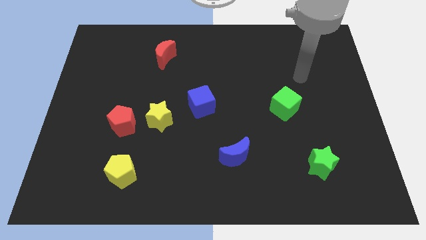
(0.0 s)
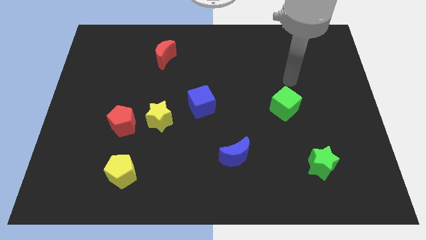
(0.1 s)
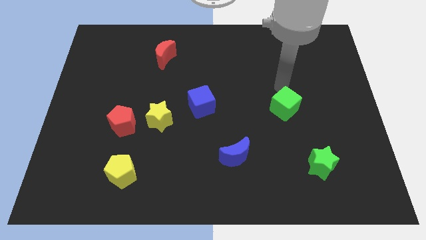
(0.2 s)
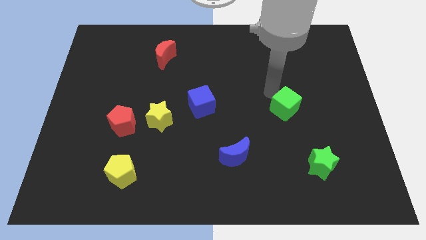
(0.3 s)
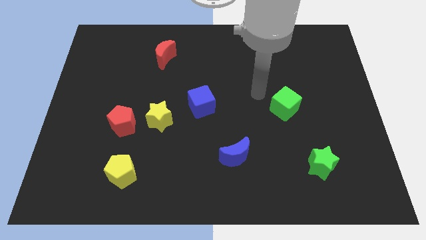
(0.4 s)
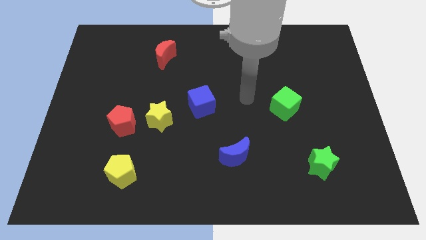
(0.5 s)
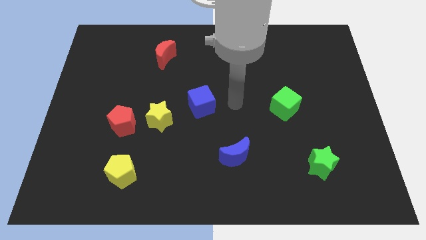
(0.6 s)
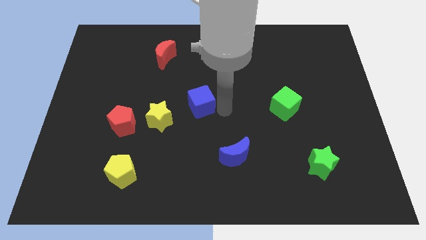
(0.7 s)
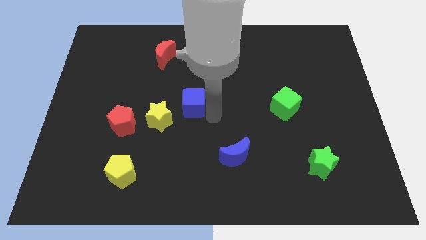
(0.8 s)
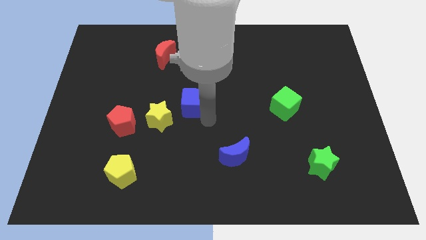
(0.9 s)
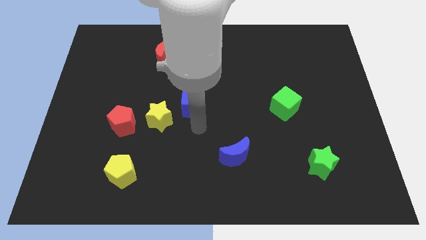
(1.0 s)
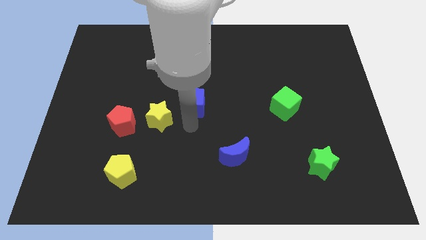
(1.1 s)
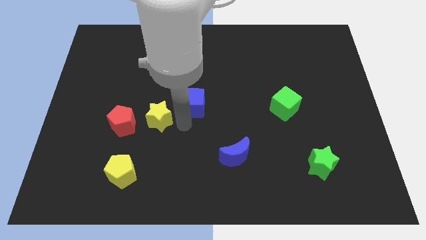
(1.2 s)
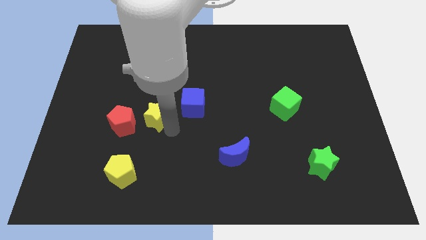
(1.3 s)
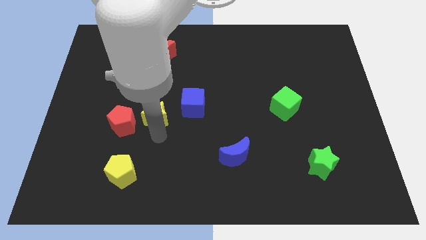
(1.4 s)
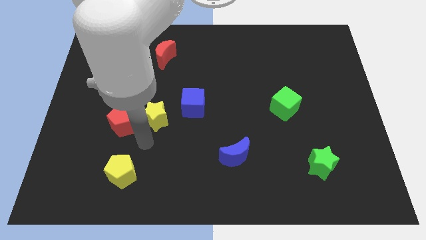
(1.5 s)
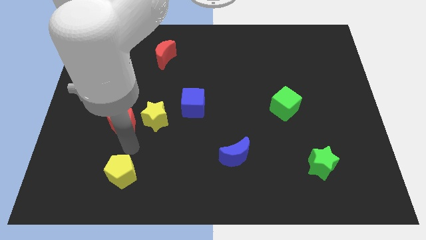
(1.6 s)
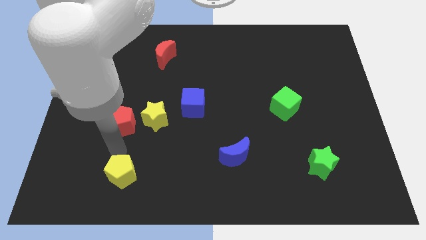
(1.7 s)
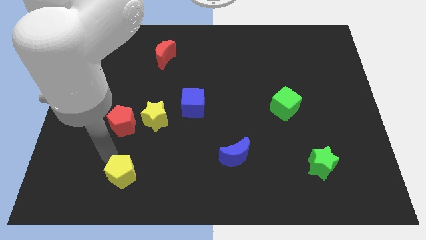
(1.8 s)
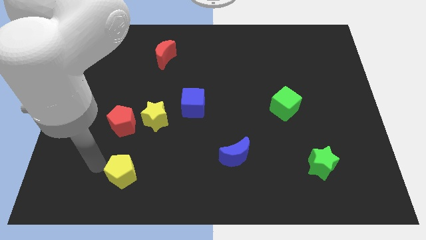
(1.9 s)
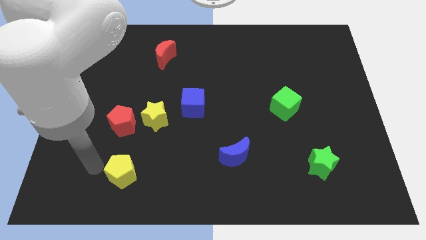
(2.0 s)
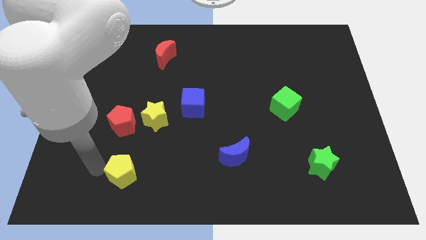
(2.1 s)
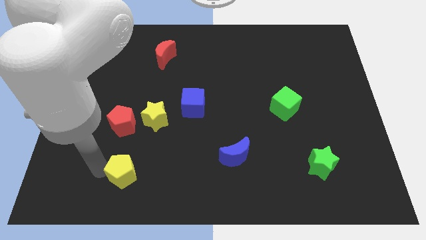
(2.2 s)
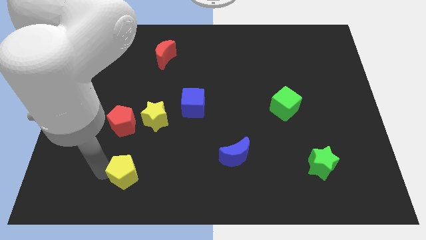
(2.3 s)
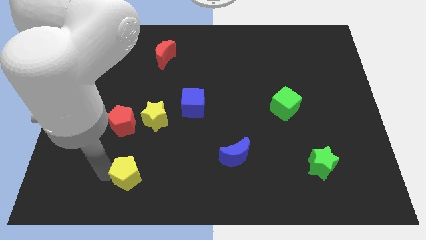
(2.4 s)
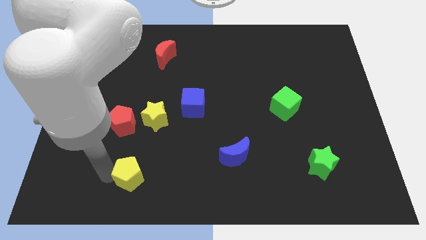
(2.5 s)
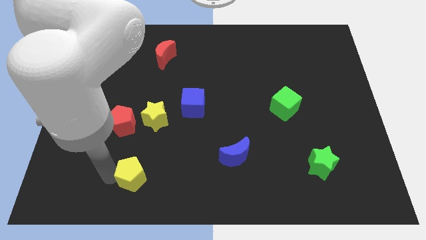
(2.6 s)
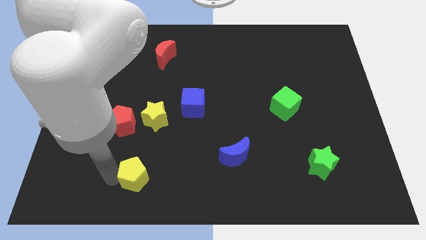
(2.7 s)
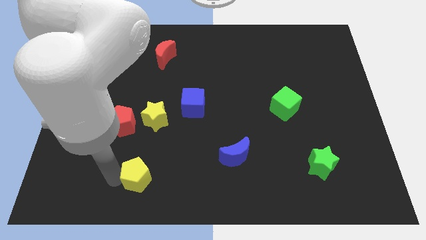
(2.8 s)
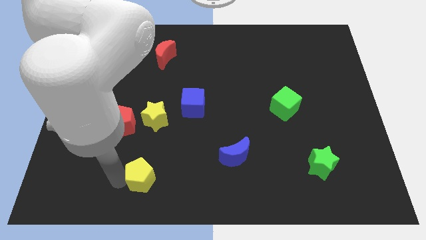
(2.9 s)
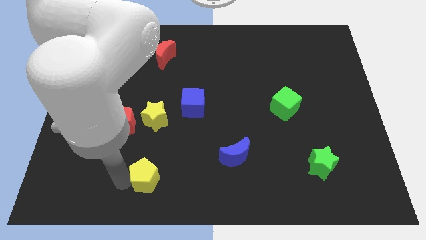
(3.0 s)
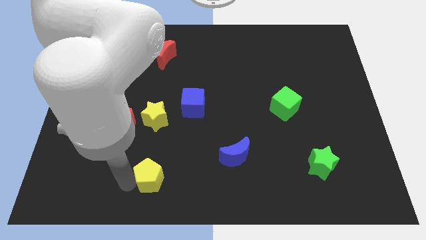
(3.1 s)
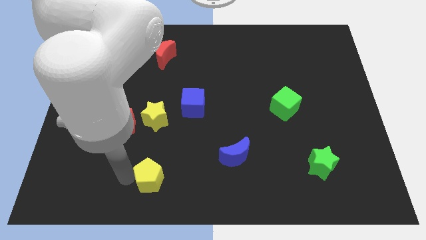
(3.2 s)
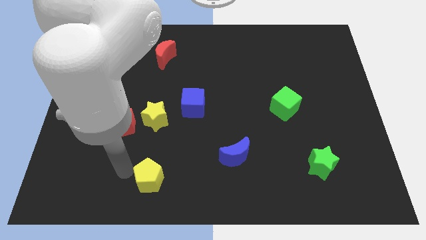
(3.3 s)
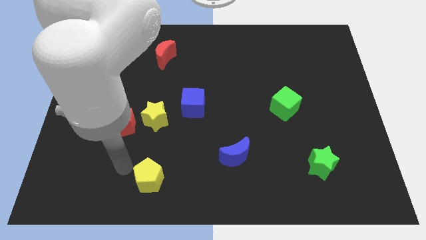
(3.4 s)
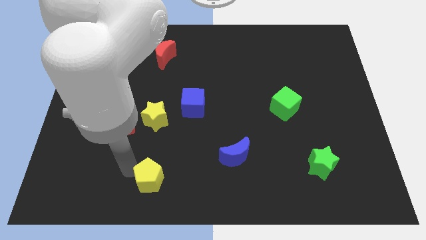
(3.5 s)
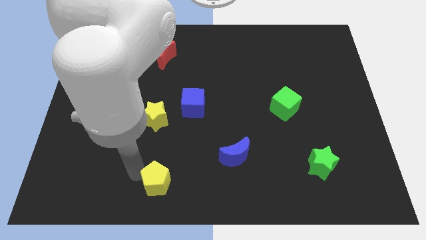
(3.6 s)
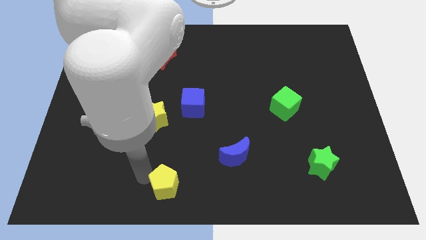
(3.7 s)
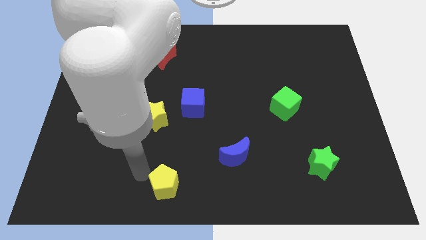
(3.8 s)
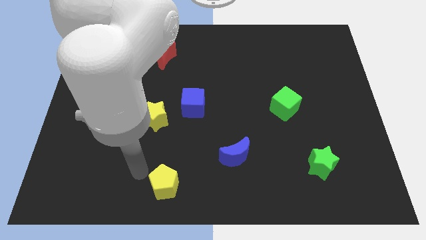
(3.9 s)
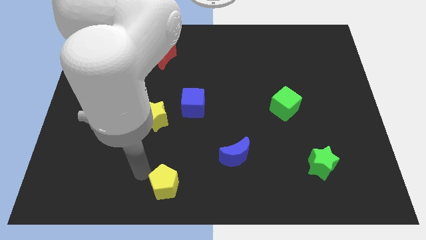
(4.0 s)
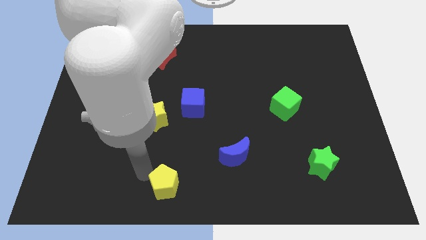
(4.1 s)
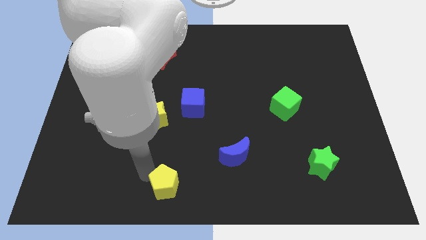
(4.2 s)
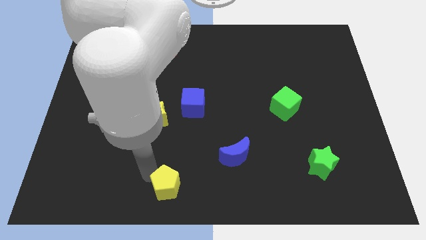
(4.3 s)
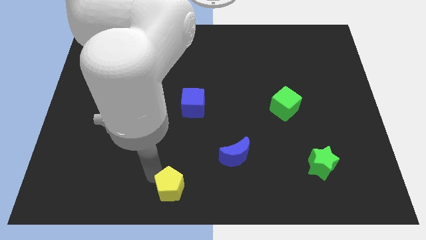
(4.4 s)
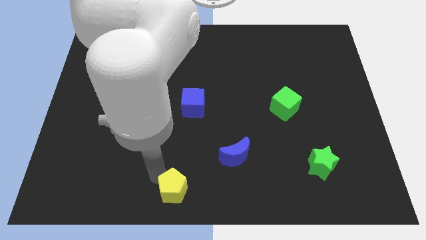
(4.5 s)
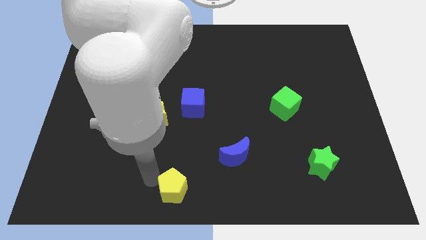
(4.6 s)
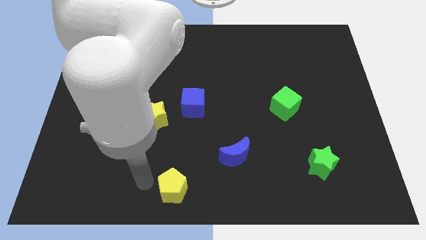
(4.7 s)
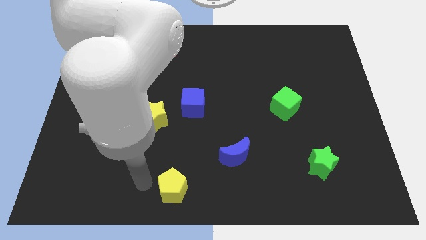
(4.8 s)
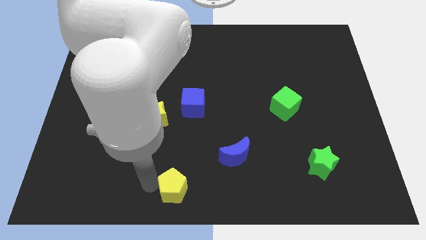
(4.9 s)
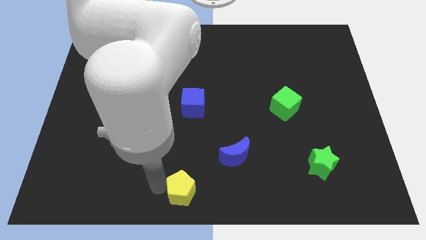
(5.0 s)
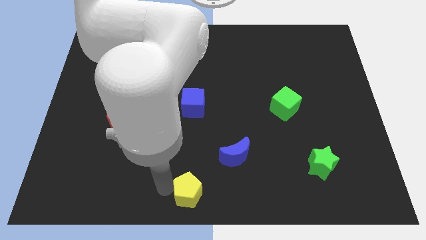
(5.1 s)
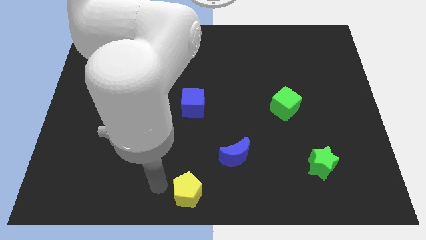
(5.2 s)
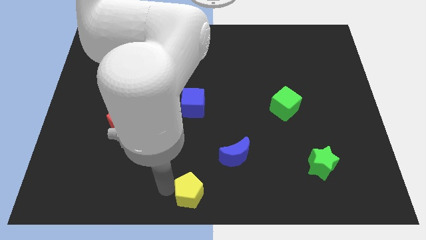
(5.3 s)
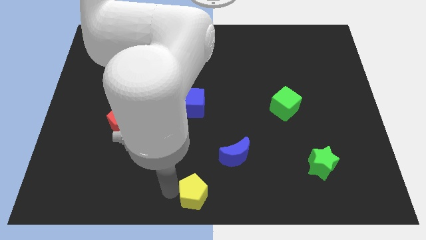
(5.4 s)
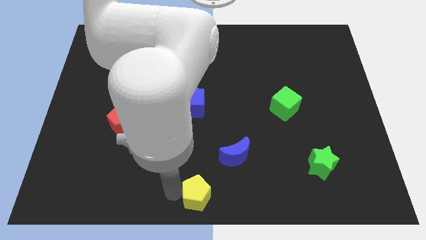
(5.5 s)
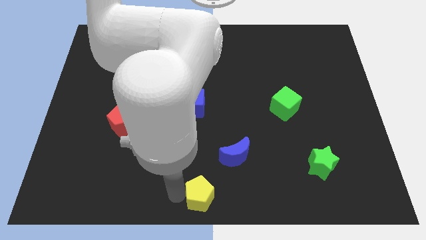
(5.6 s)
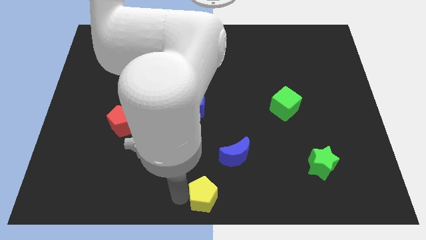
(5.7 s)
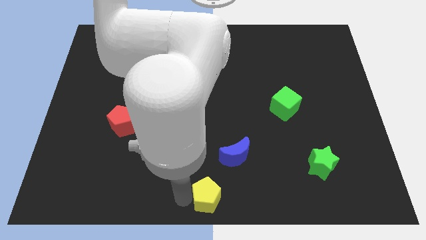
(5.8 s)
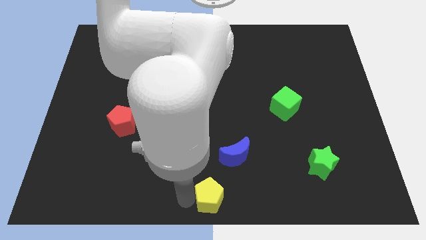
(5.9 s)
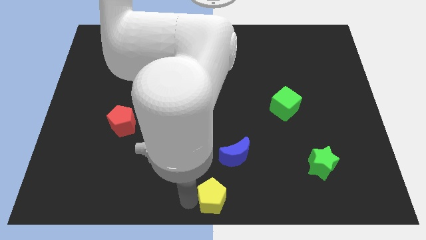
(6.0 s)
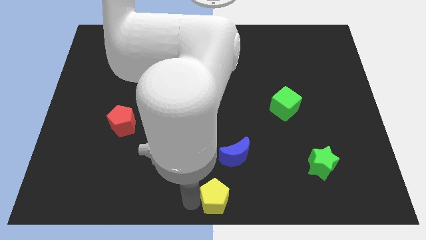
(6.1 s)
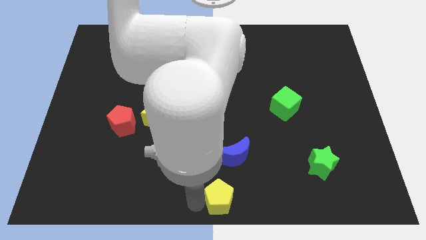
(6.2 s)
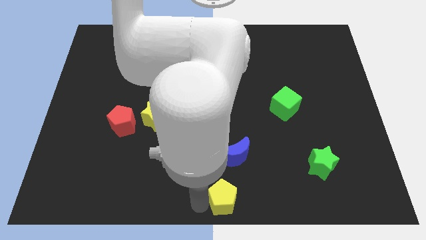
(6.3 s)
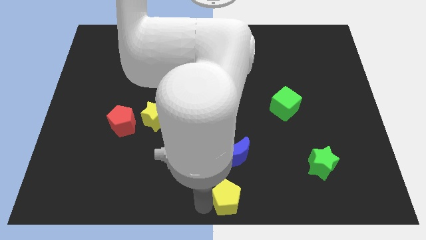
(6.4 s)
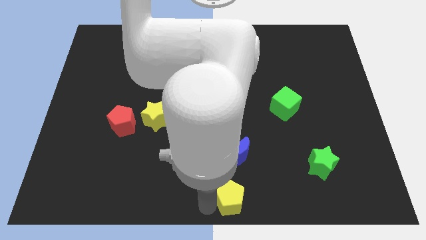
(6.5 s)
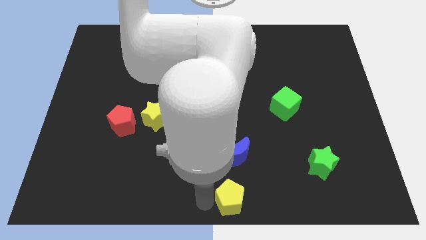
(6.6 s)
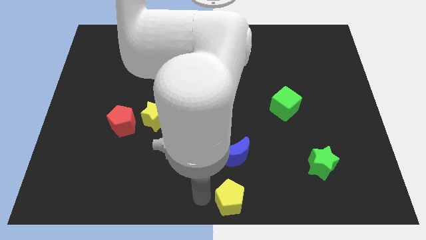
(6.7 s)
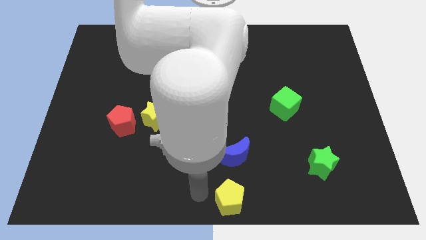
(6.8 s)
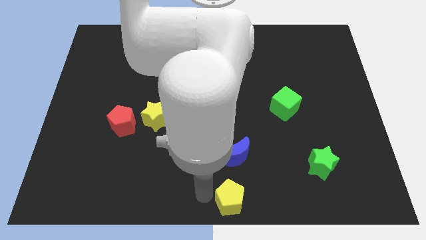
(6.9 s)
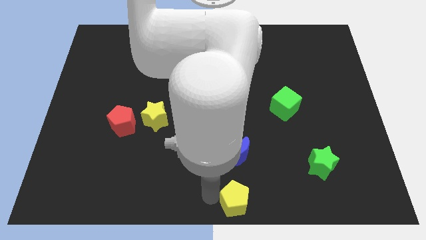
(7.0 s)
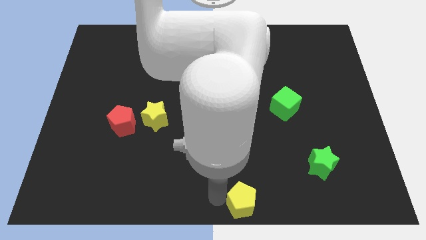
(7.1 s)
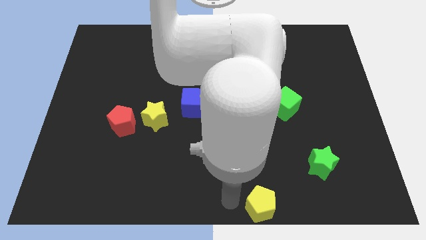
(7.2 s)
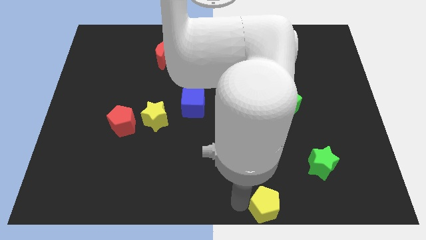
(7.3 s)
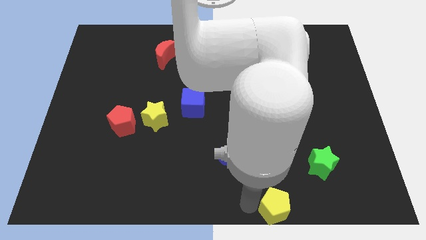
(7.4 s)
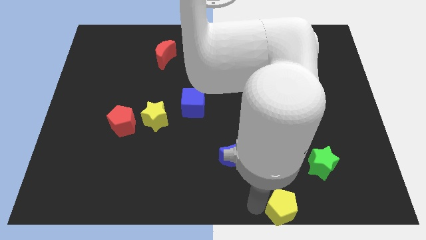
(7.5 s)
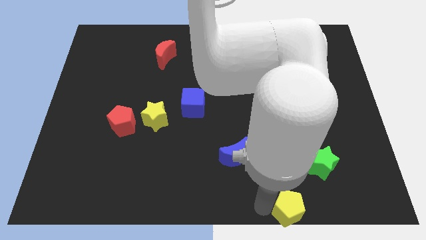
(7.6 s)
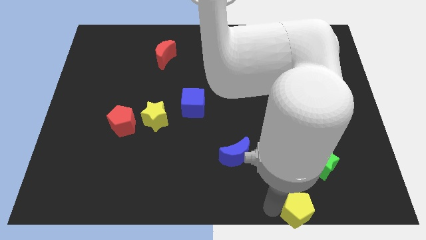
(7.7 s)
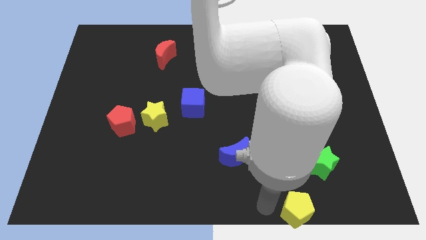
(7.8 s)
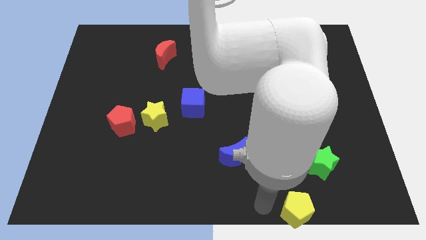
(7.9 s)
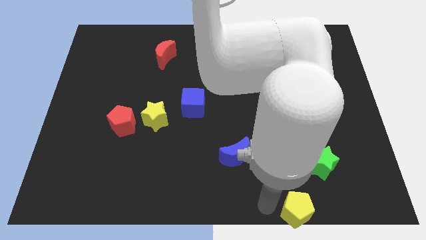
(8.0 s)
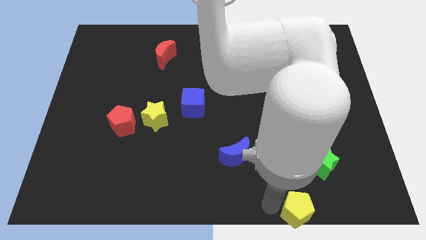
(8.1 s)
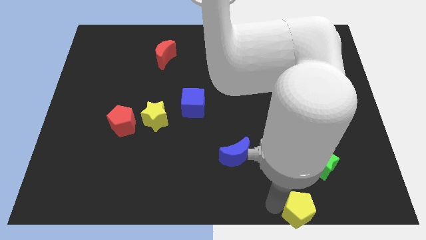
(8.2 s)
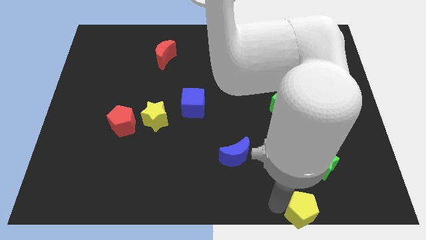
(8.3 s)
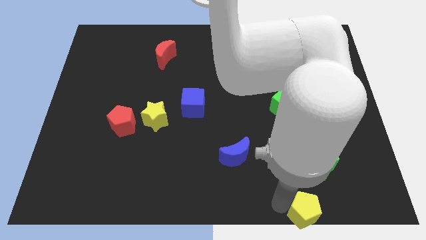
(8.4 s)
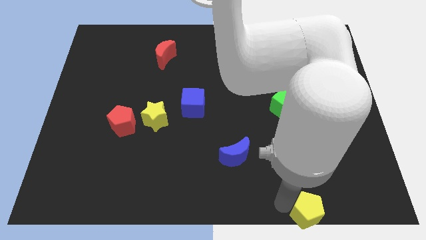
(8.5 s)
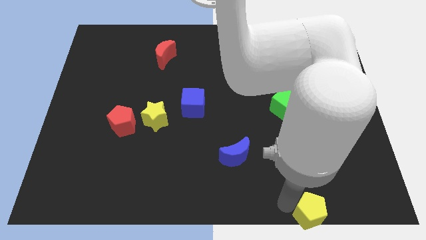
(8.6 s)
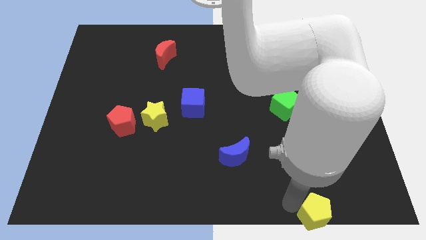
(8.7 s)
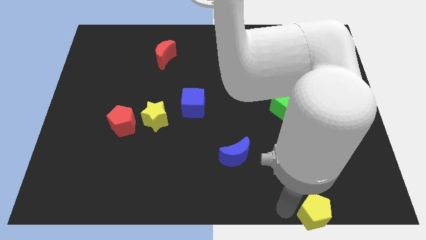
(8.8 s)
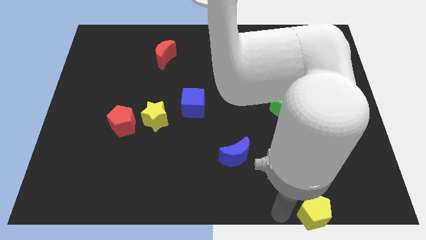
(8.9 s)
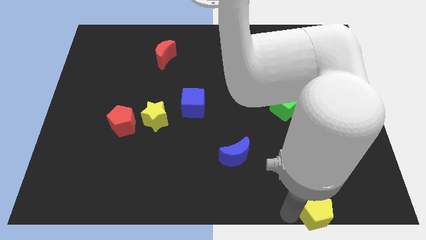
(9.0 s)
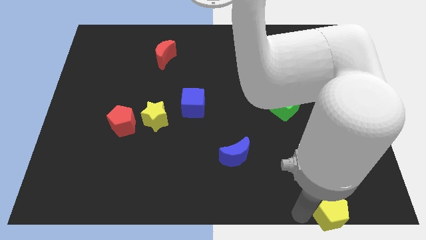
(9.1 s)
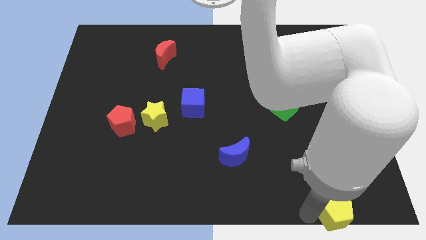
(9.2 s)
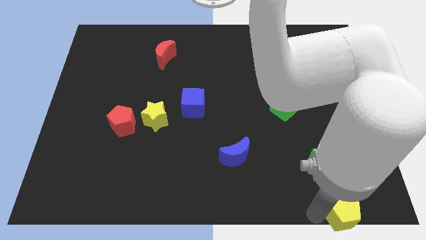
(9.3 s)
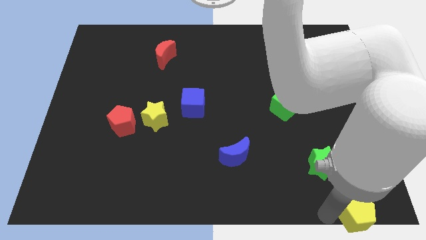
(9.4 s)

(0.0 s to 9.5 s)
push the yellow pentagon to the bottom right
